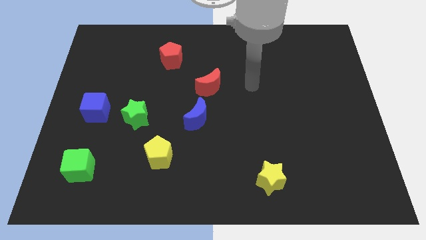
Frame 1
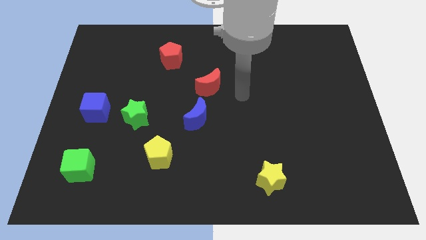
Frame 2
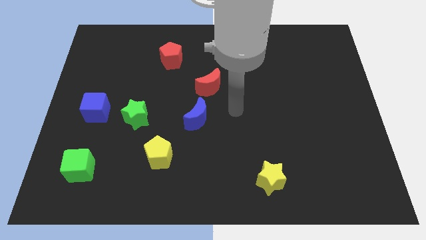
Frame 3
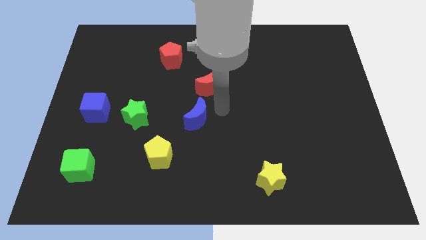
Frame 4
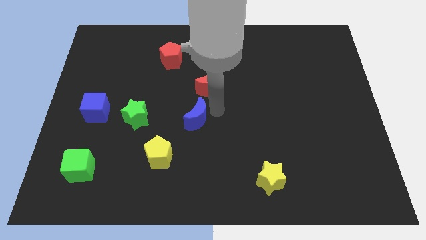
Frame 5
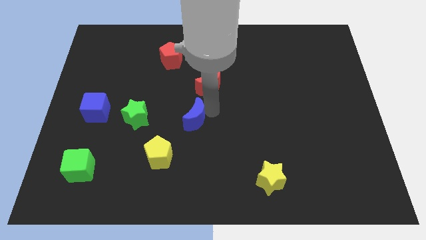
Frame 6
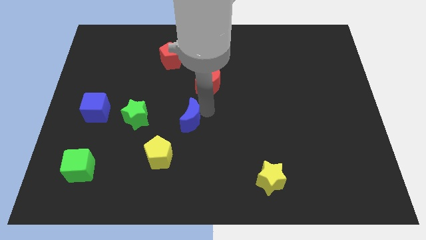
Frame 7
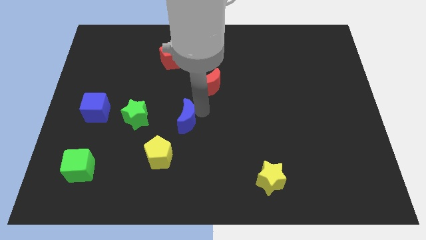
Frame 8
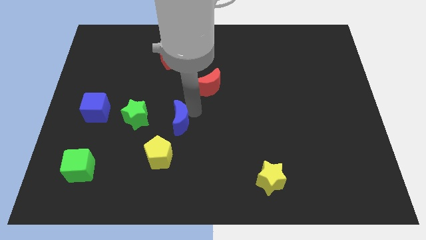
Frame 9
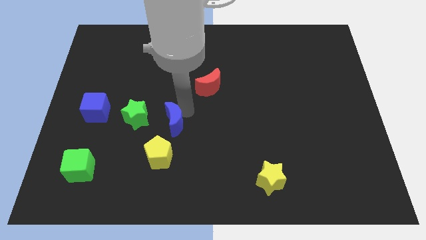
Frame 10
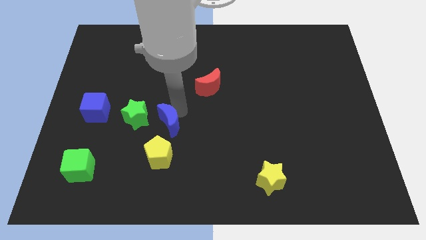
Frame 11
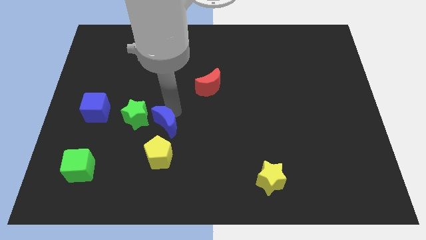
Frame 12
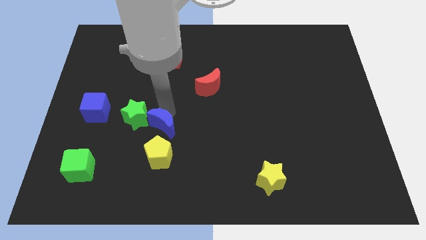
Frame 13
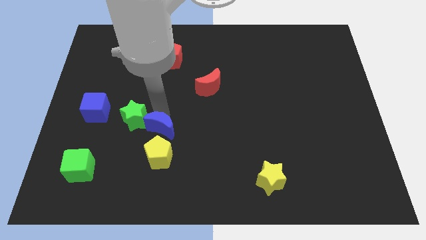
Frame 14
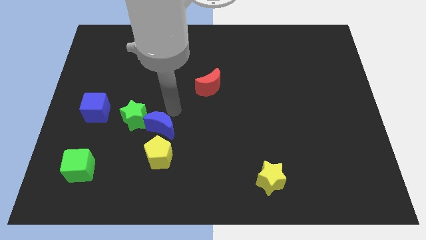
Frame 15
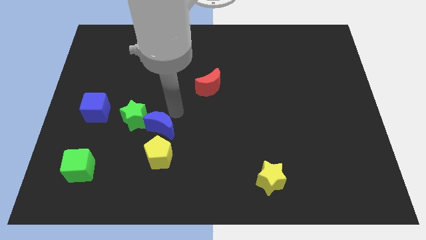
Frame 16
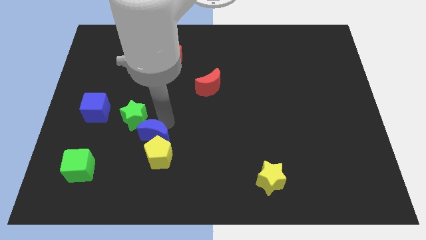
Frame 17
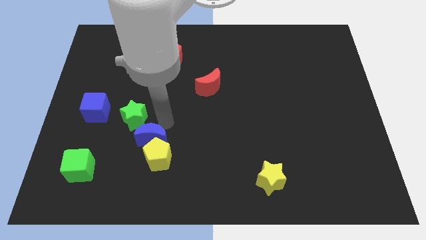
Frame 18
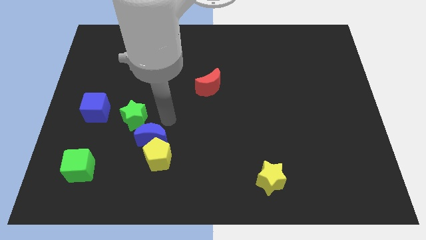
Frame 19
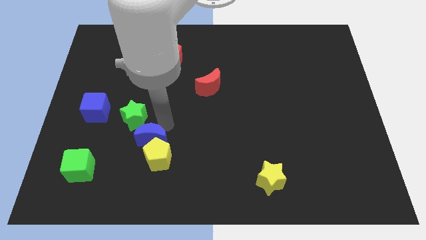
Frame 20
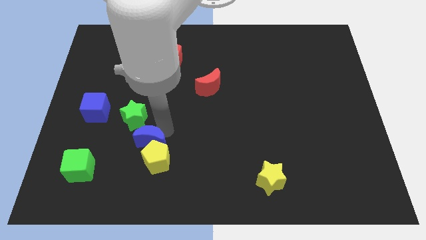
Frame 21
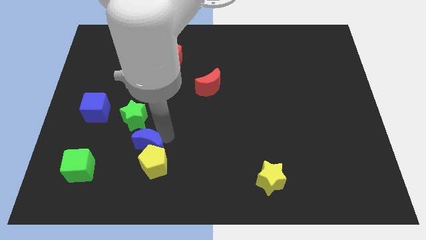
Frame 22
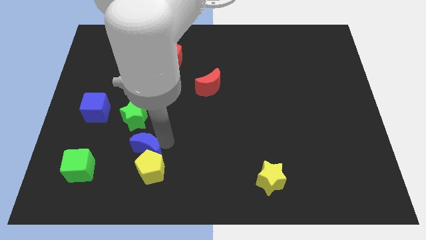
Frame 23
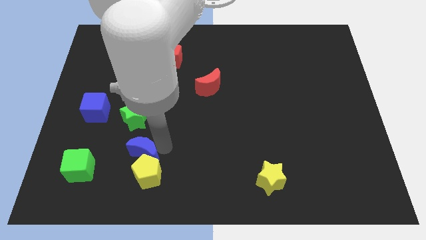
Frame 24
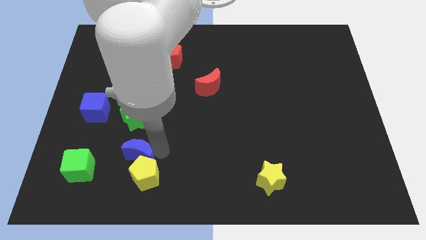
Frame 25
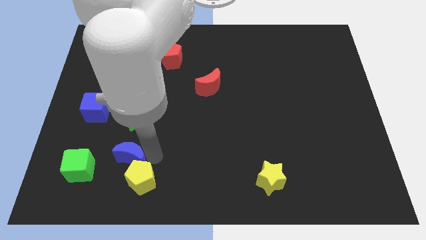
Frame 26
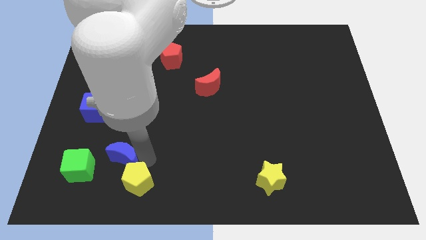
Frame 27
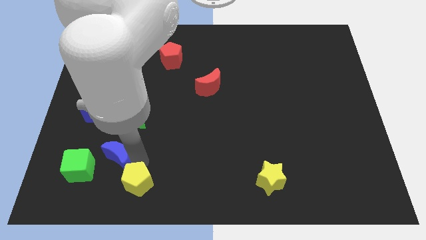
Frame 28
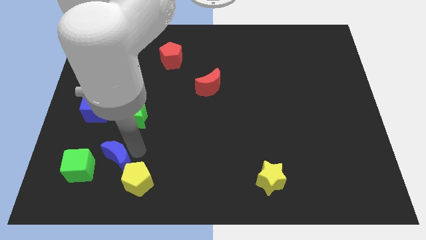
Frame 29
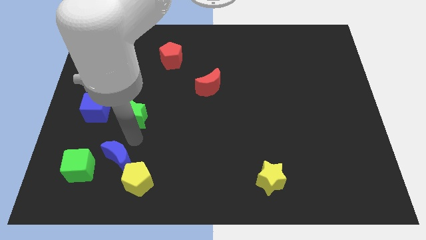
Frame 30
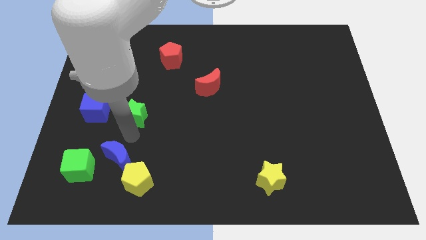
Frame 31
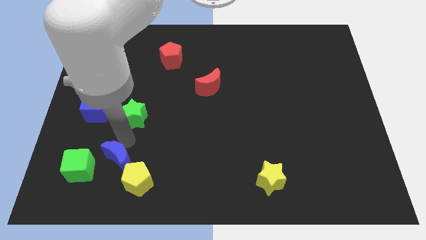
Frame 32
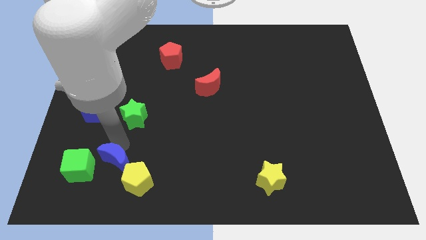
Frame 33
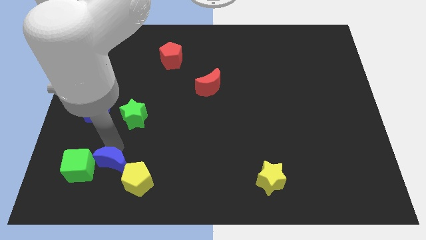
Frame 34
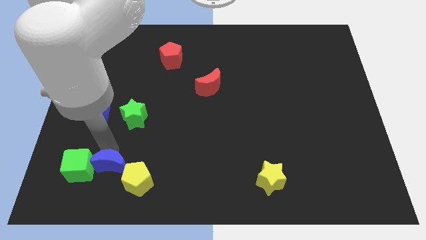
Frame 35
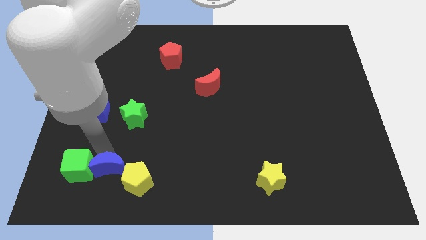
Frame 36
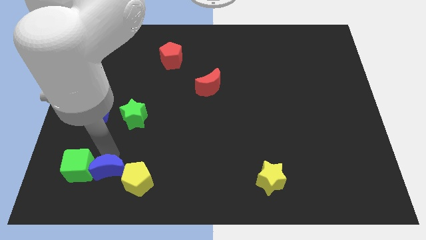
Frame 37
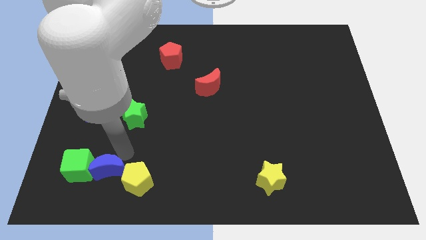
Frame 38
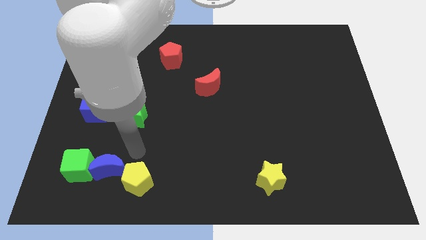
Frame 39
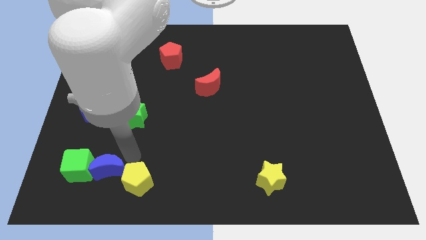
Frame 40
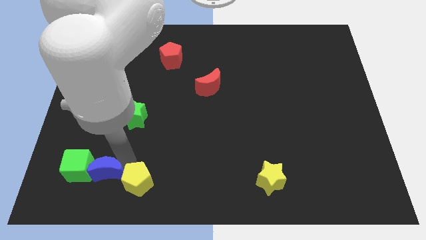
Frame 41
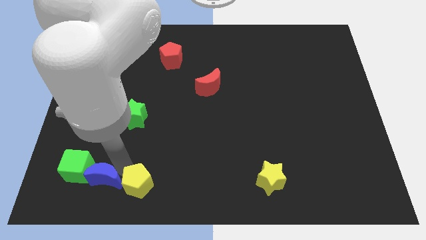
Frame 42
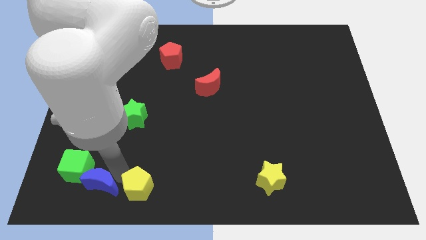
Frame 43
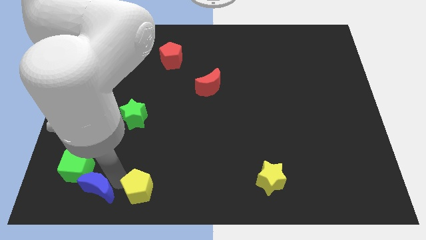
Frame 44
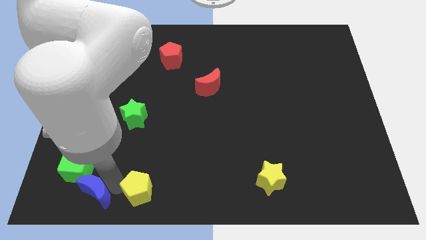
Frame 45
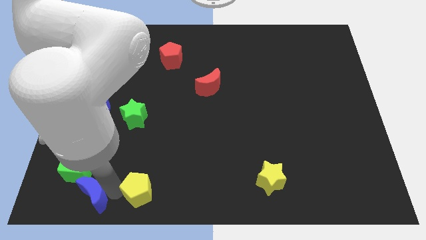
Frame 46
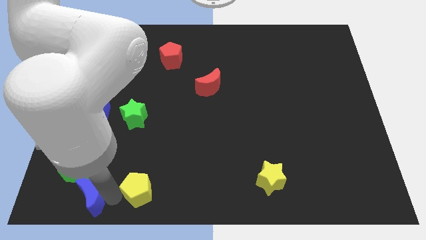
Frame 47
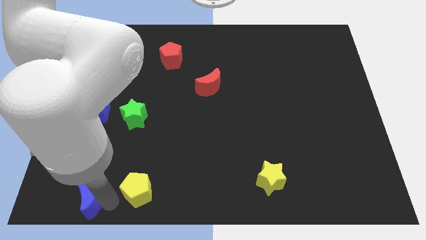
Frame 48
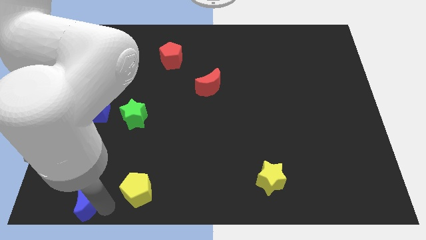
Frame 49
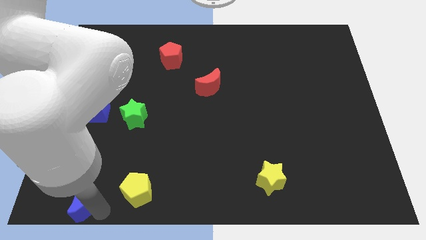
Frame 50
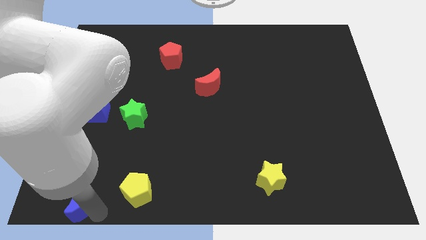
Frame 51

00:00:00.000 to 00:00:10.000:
put the blue moon to the lower left corner

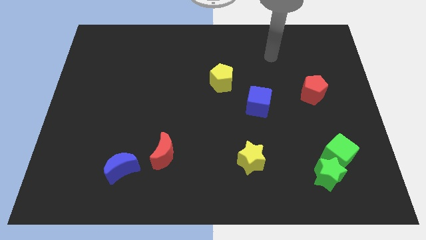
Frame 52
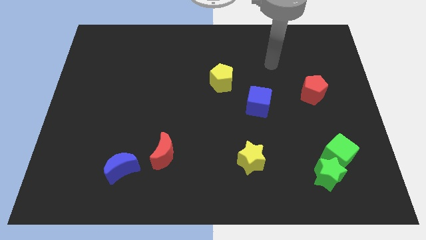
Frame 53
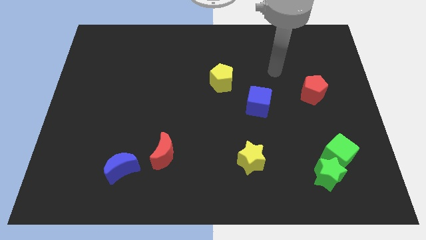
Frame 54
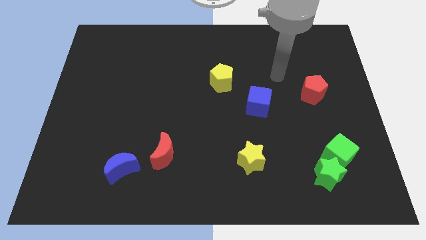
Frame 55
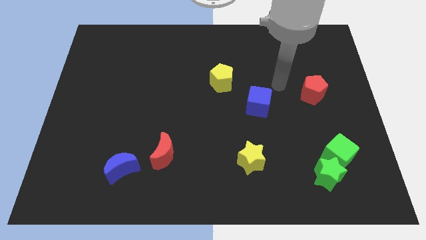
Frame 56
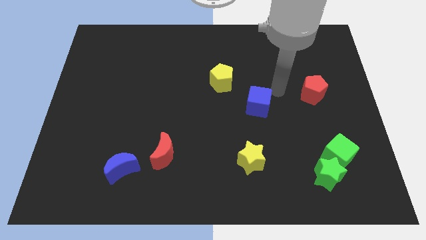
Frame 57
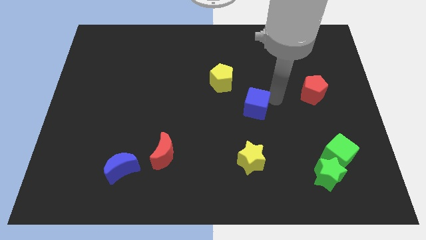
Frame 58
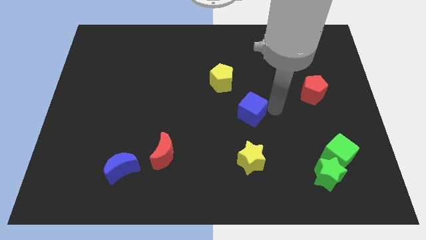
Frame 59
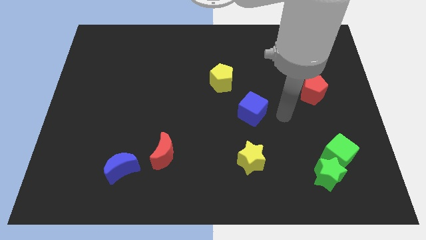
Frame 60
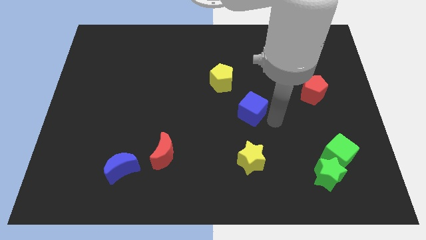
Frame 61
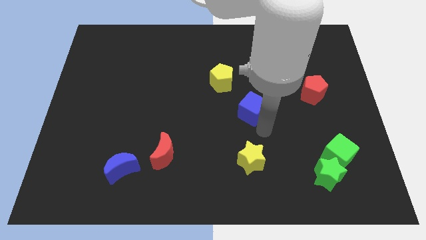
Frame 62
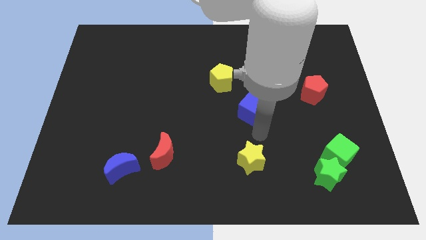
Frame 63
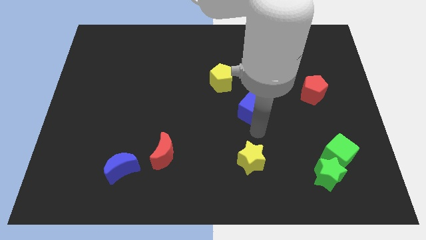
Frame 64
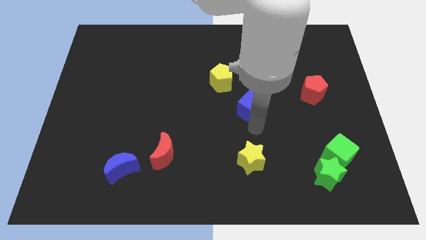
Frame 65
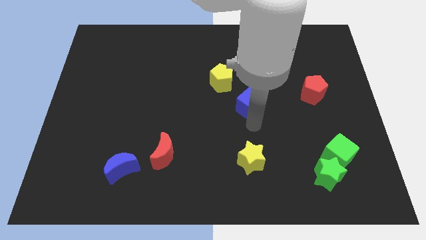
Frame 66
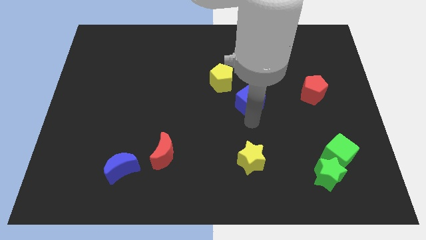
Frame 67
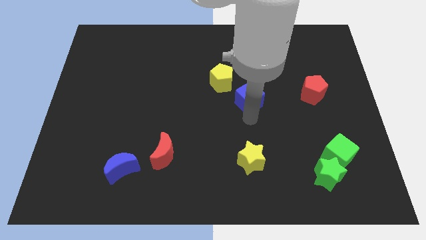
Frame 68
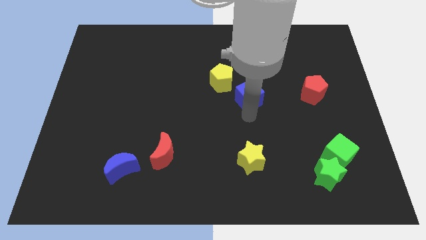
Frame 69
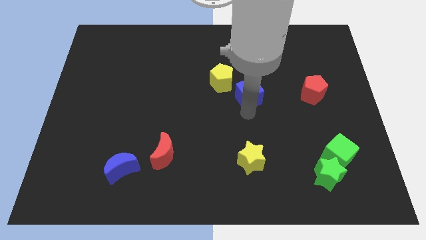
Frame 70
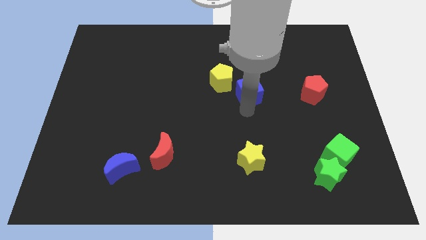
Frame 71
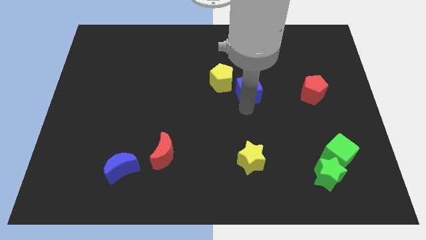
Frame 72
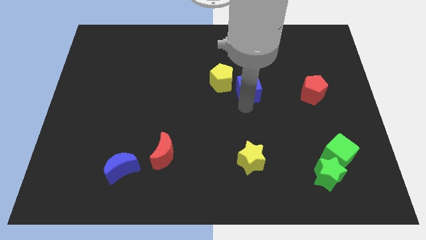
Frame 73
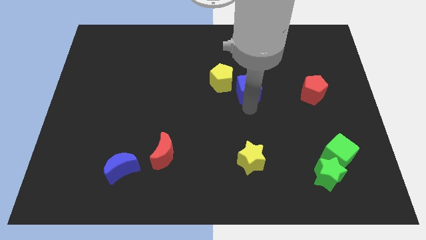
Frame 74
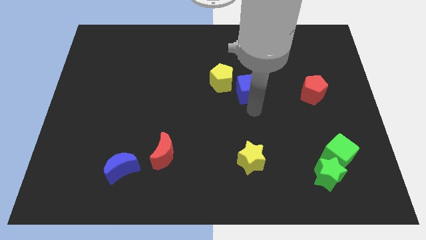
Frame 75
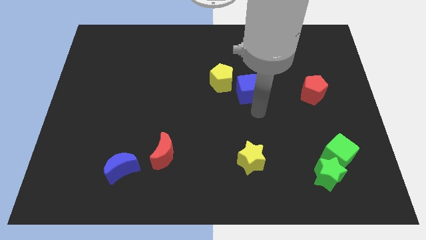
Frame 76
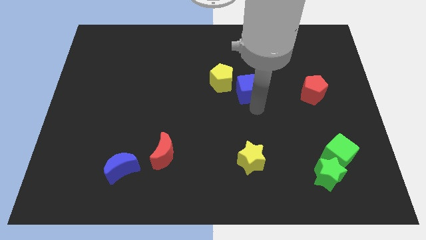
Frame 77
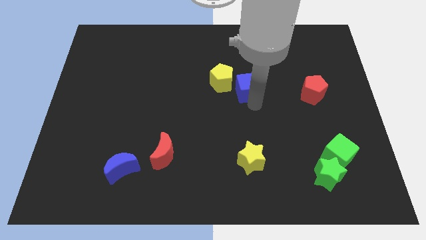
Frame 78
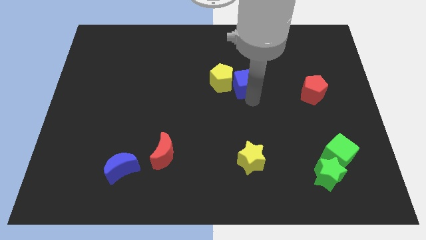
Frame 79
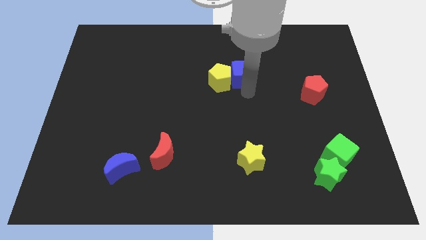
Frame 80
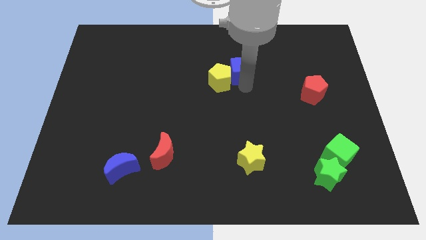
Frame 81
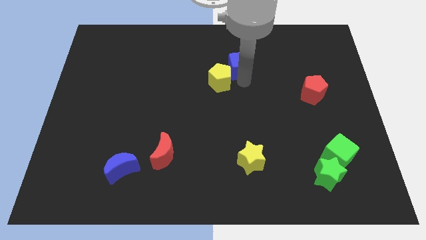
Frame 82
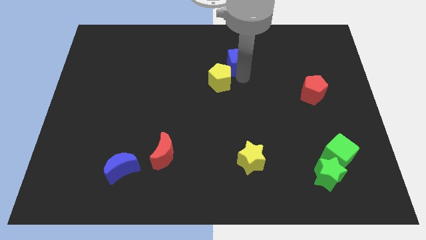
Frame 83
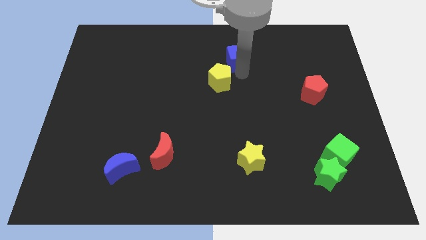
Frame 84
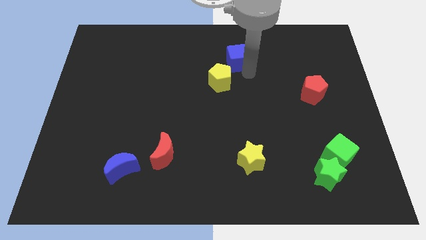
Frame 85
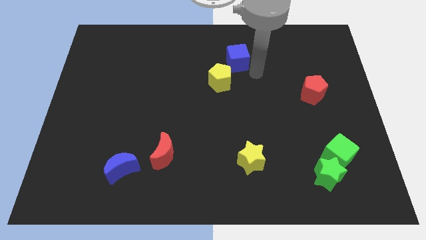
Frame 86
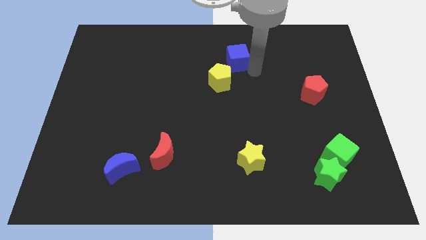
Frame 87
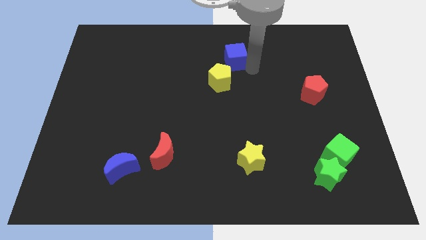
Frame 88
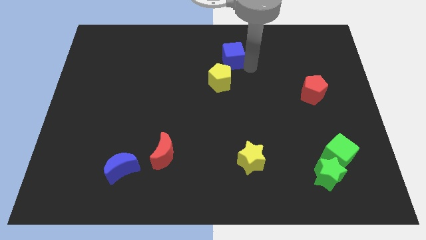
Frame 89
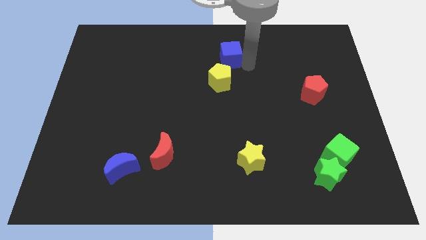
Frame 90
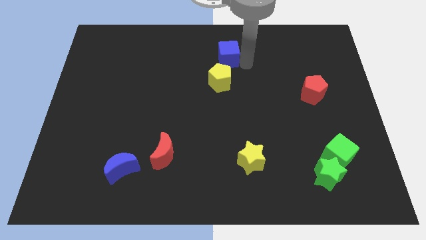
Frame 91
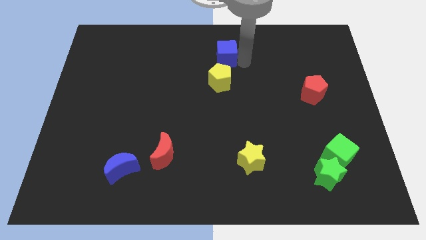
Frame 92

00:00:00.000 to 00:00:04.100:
put the blue cube to the top side
